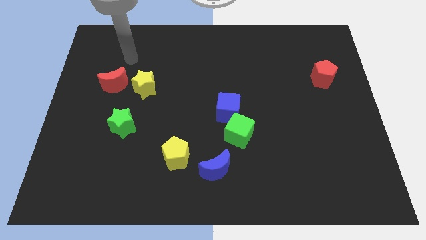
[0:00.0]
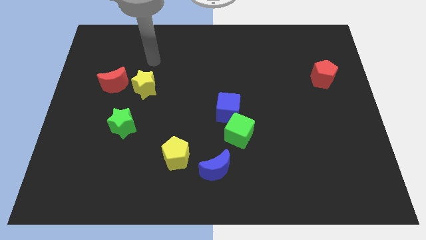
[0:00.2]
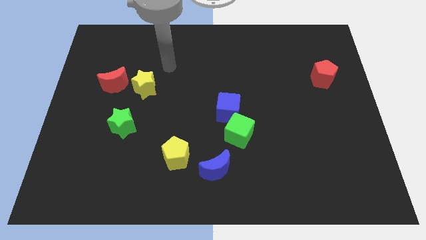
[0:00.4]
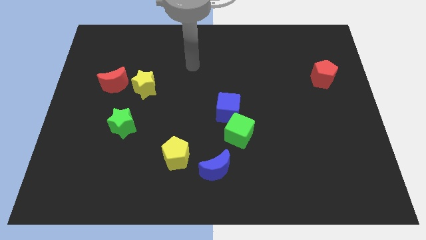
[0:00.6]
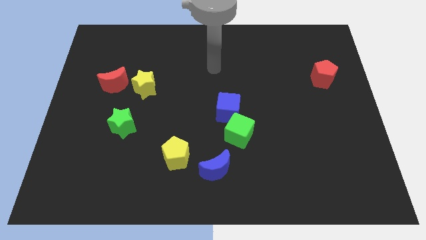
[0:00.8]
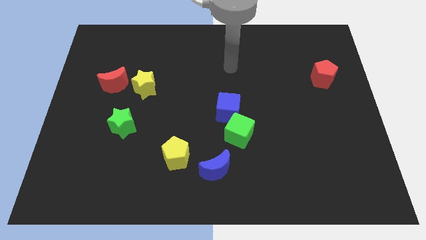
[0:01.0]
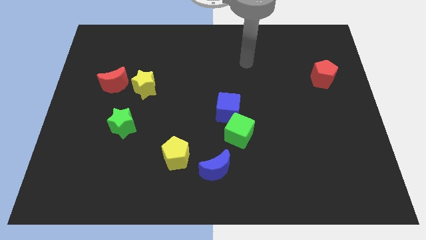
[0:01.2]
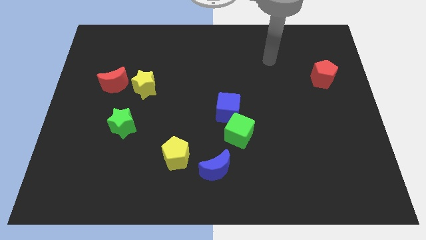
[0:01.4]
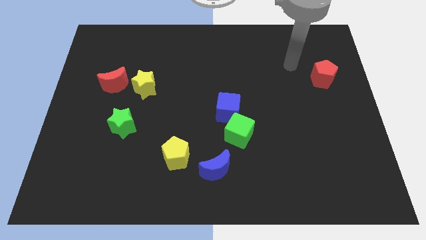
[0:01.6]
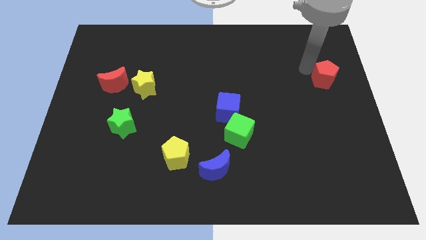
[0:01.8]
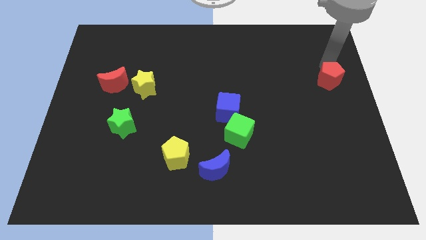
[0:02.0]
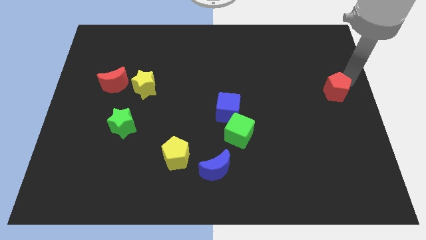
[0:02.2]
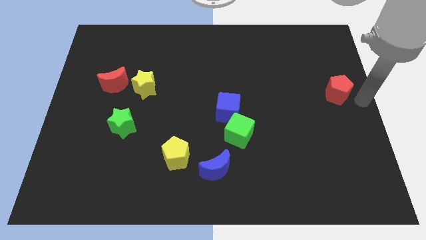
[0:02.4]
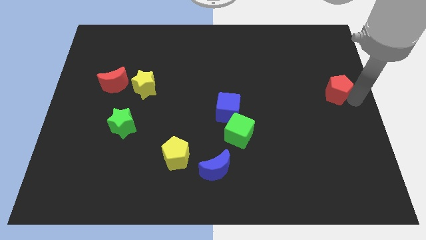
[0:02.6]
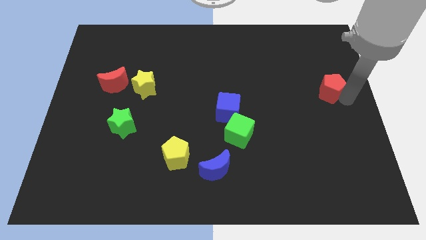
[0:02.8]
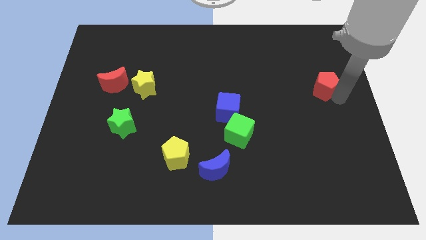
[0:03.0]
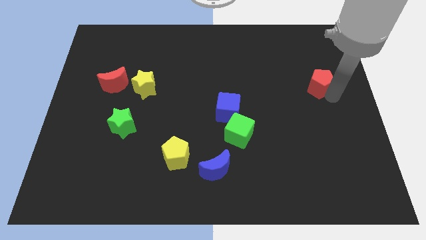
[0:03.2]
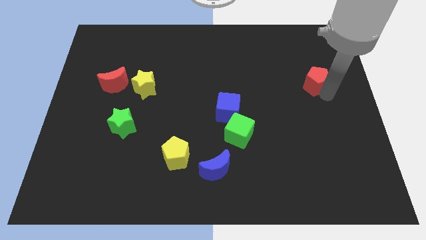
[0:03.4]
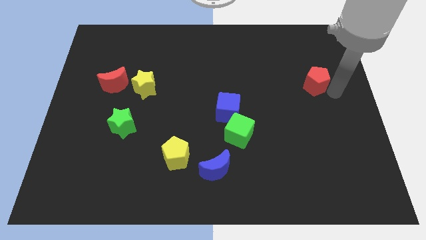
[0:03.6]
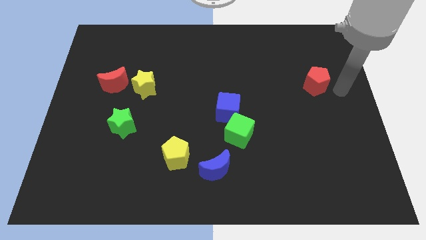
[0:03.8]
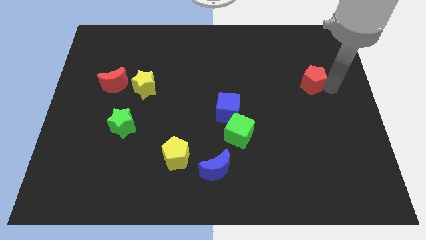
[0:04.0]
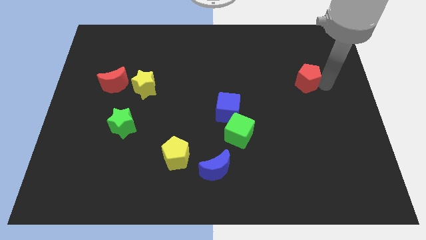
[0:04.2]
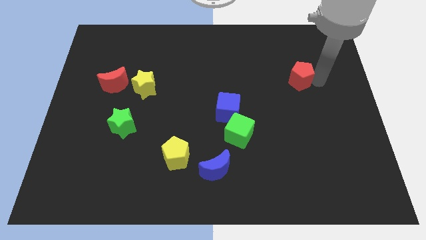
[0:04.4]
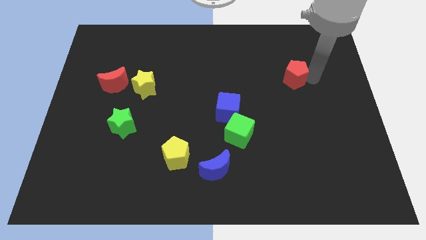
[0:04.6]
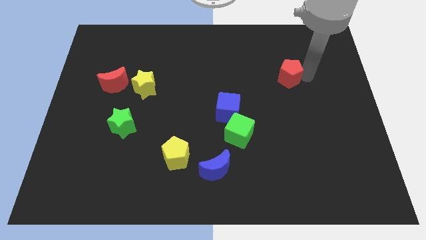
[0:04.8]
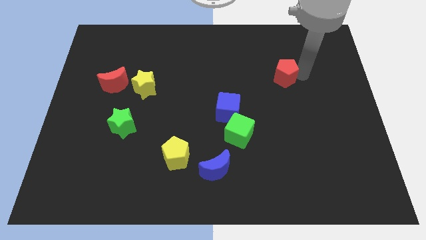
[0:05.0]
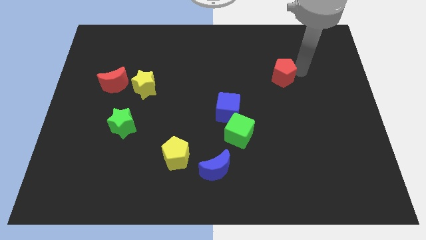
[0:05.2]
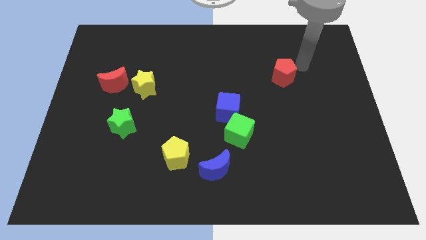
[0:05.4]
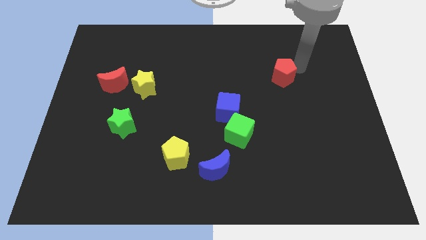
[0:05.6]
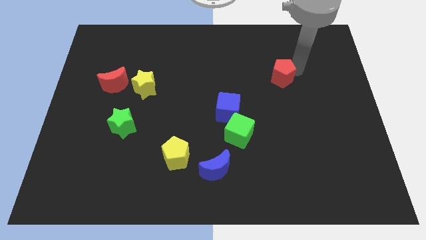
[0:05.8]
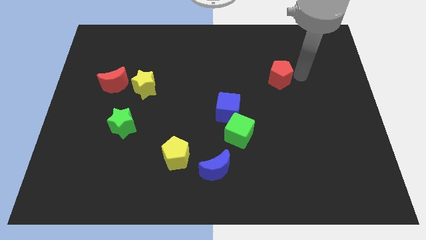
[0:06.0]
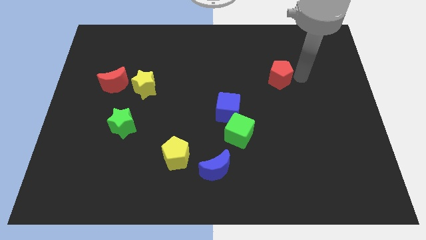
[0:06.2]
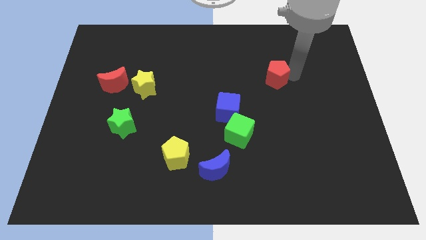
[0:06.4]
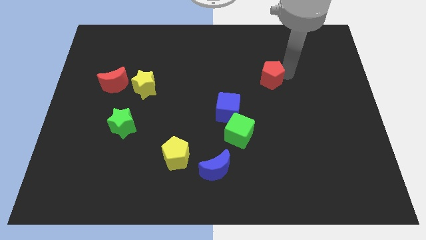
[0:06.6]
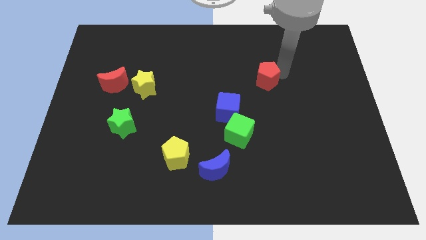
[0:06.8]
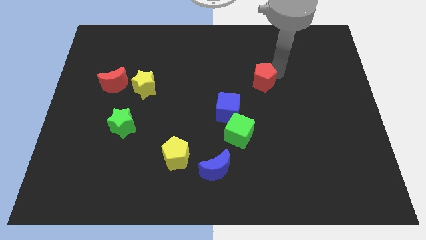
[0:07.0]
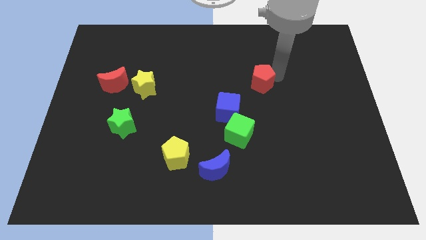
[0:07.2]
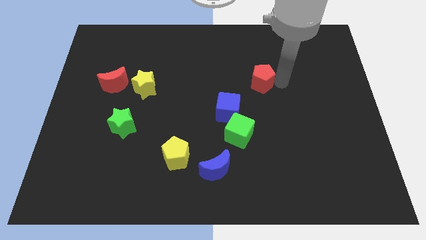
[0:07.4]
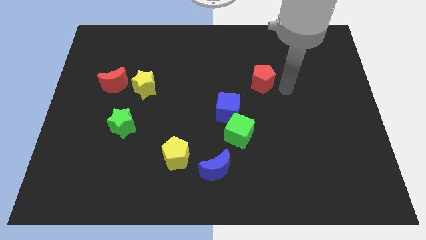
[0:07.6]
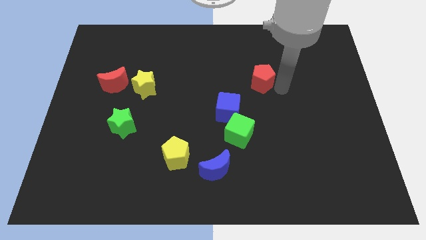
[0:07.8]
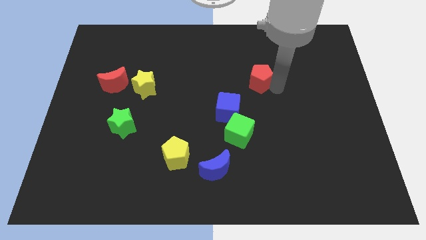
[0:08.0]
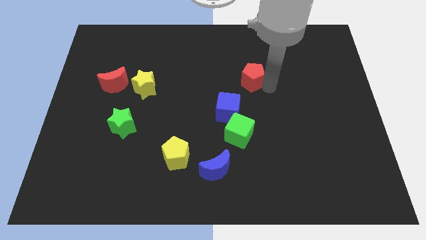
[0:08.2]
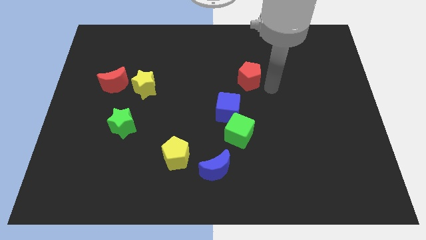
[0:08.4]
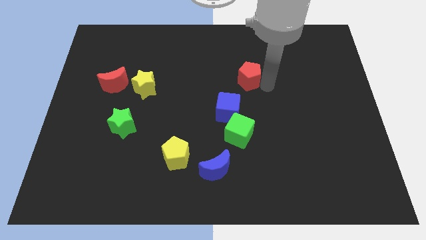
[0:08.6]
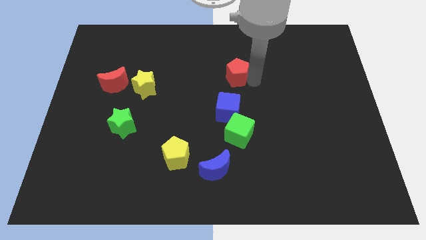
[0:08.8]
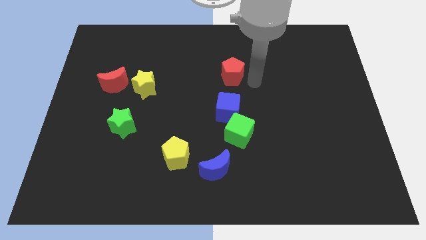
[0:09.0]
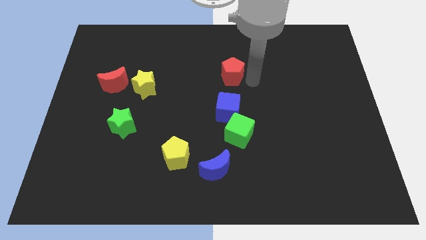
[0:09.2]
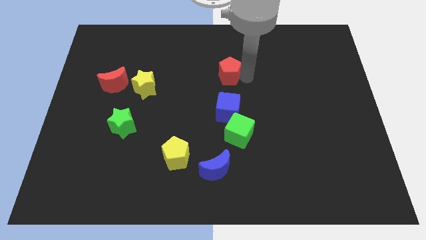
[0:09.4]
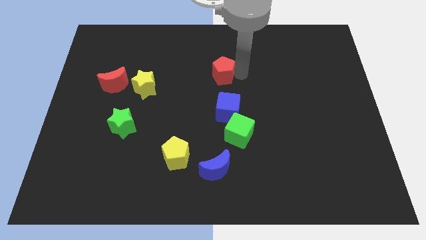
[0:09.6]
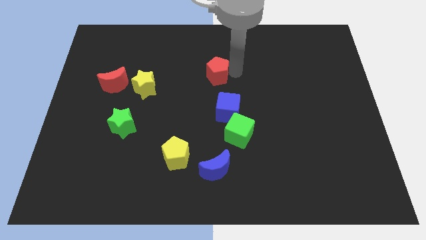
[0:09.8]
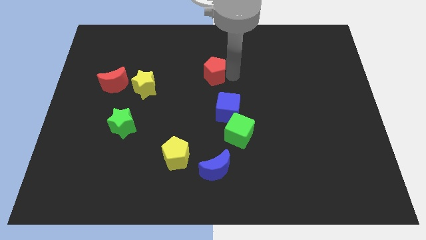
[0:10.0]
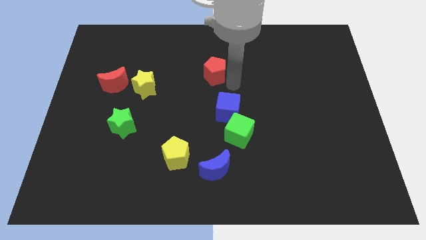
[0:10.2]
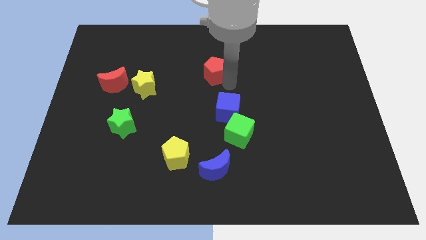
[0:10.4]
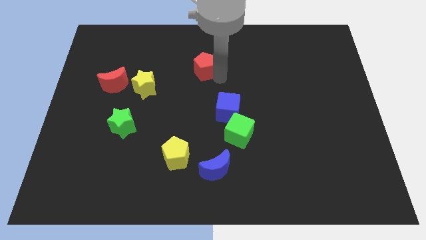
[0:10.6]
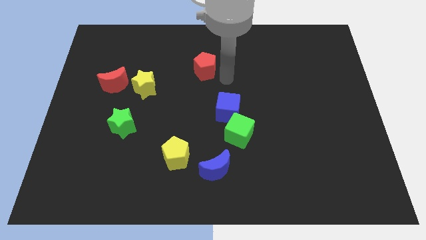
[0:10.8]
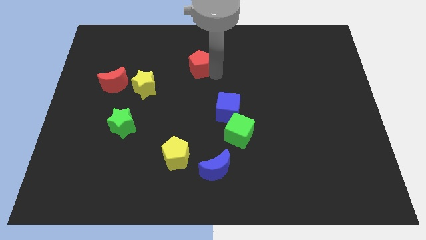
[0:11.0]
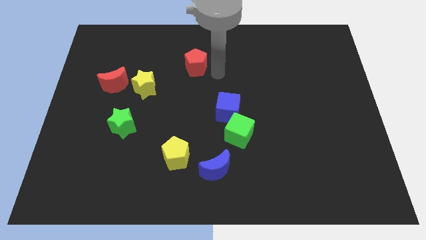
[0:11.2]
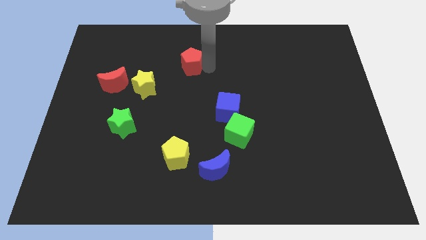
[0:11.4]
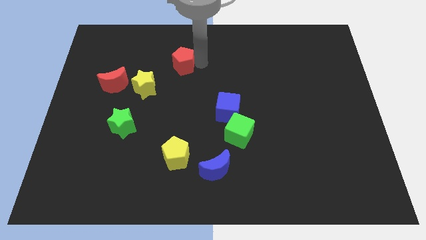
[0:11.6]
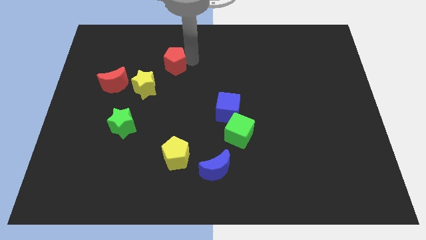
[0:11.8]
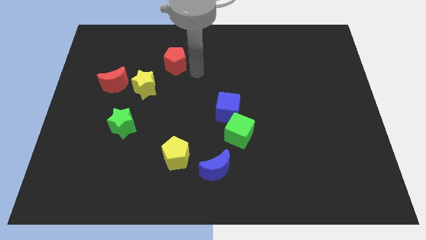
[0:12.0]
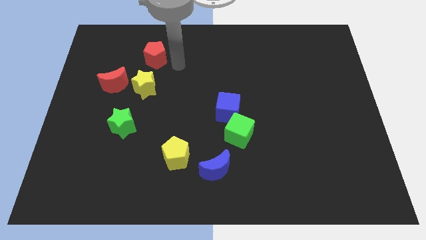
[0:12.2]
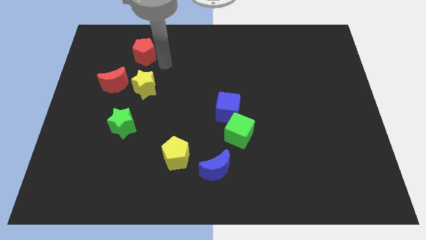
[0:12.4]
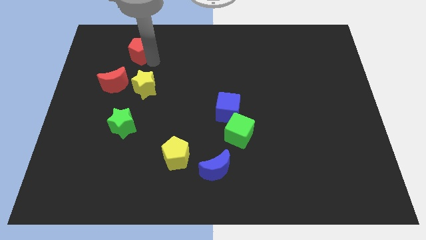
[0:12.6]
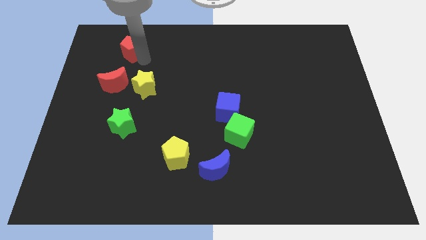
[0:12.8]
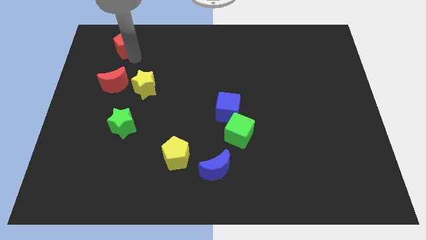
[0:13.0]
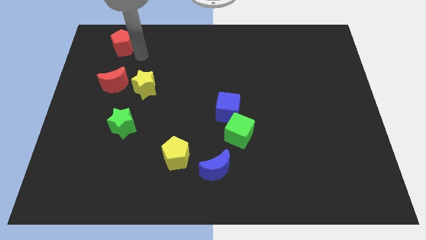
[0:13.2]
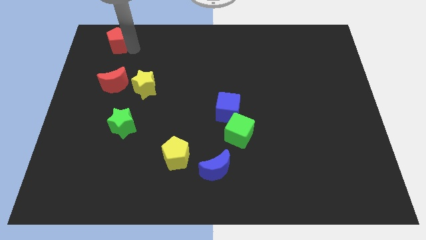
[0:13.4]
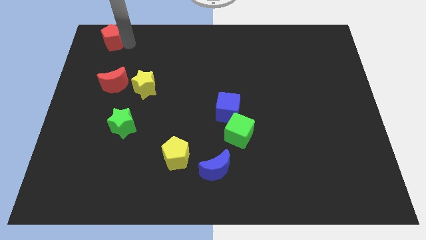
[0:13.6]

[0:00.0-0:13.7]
push the red pentagon to the top left of the board

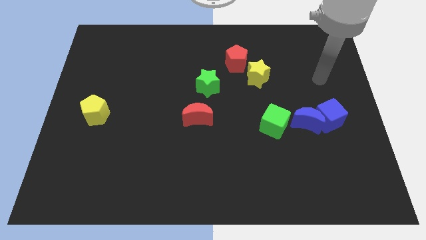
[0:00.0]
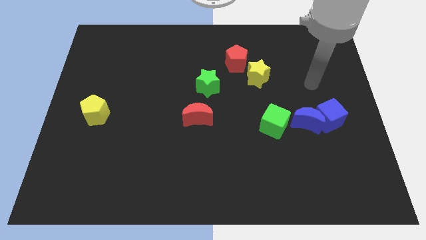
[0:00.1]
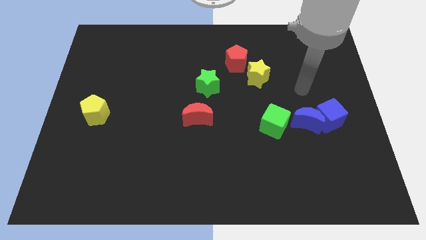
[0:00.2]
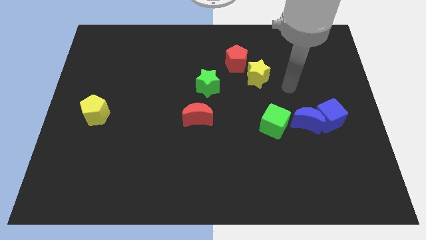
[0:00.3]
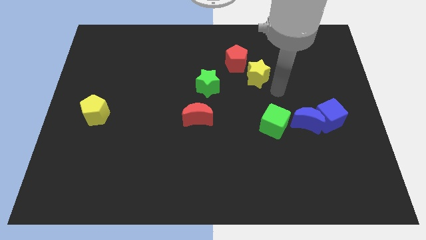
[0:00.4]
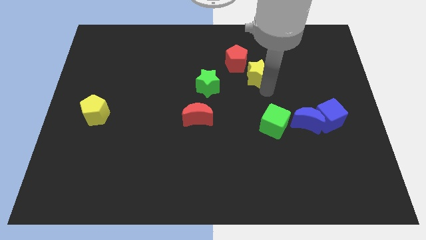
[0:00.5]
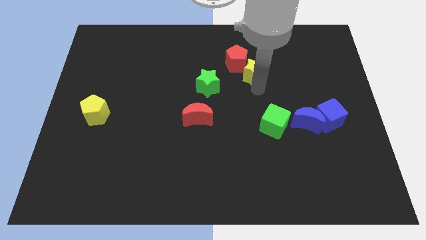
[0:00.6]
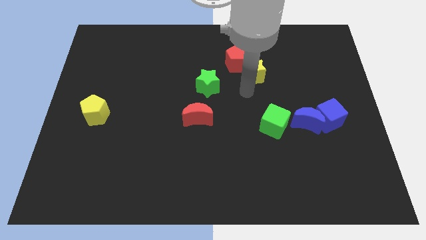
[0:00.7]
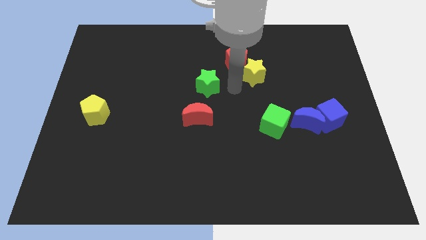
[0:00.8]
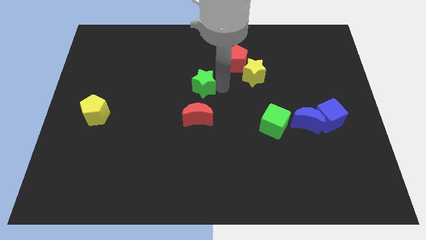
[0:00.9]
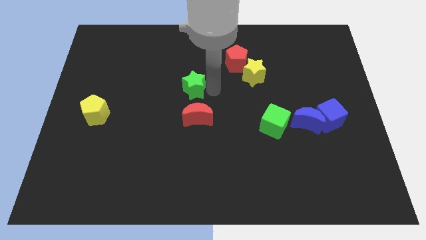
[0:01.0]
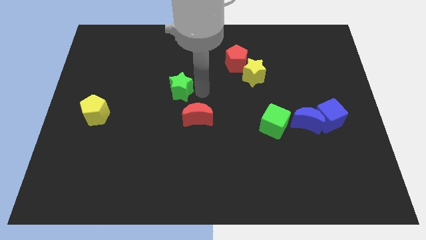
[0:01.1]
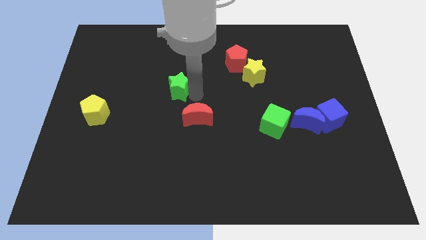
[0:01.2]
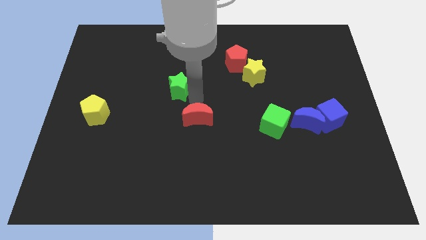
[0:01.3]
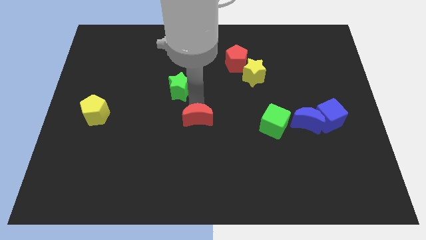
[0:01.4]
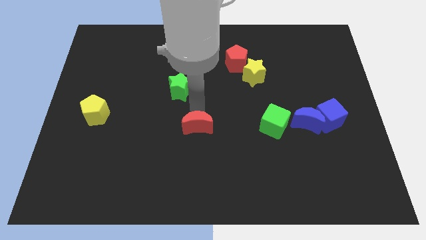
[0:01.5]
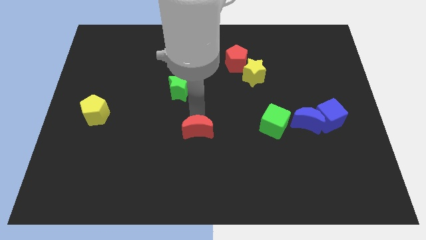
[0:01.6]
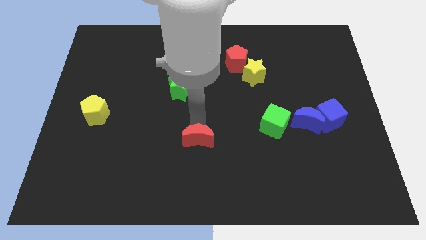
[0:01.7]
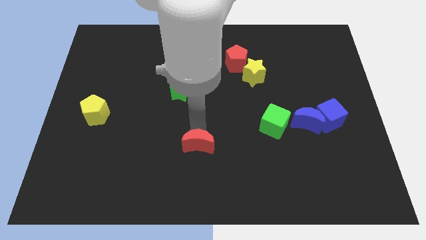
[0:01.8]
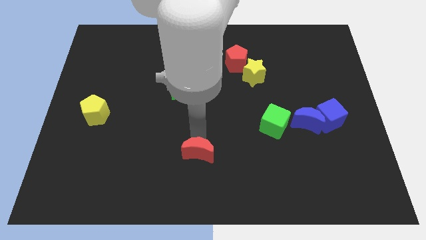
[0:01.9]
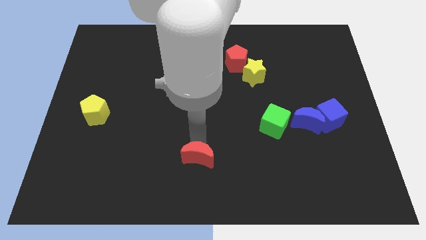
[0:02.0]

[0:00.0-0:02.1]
move the red moon to the bottom
